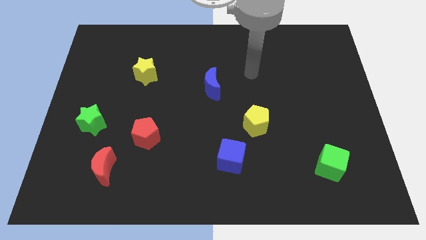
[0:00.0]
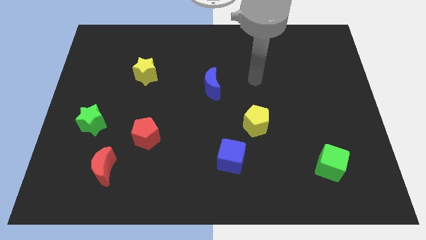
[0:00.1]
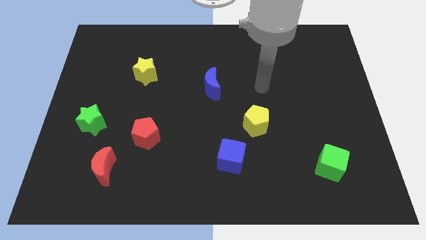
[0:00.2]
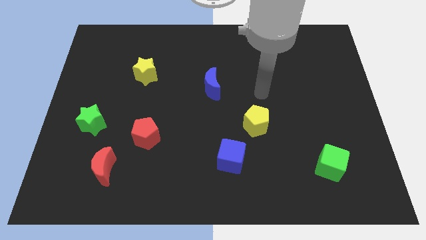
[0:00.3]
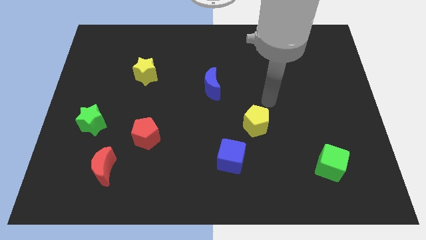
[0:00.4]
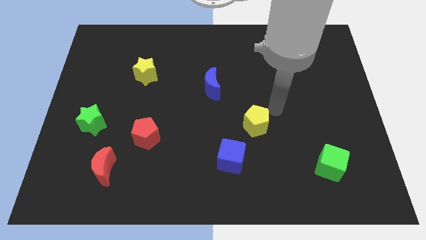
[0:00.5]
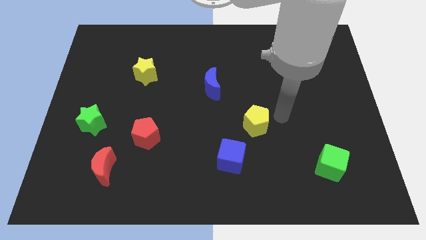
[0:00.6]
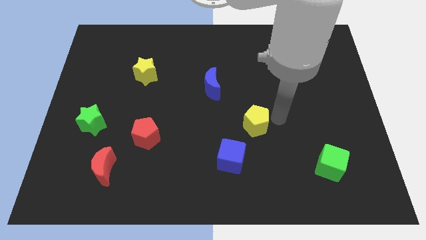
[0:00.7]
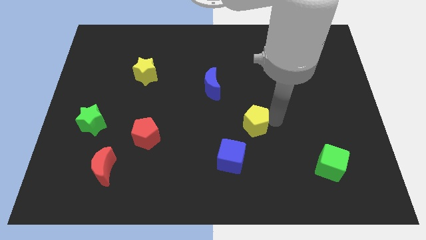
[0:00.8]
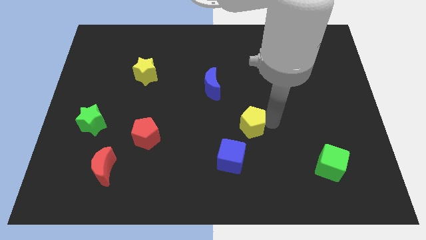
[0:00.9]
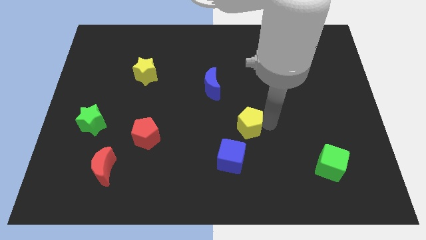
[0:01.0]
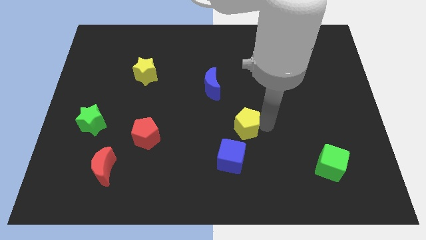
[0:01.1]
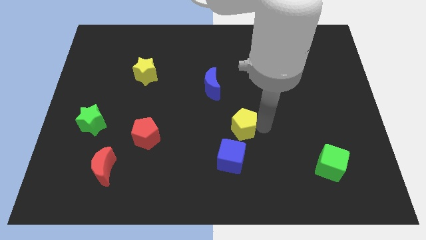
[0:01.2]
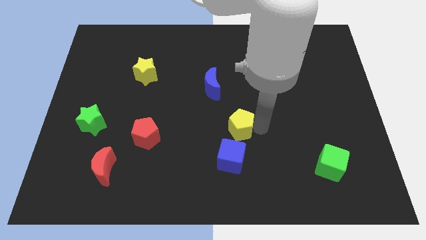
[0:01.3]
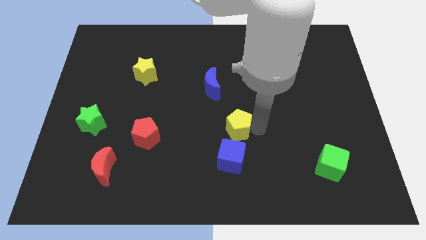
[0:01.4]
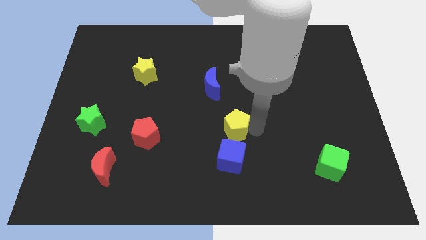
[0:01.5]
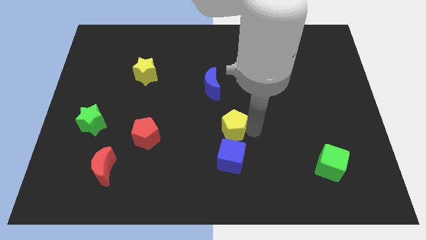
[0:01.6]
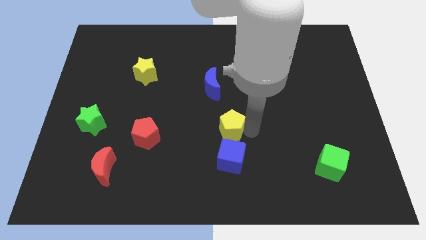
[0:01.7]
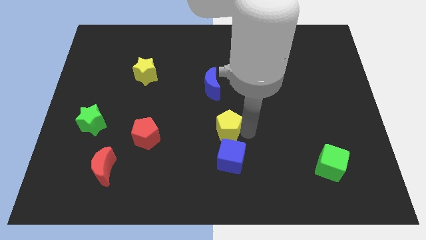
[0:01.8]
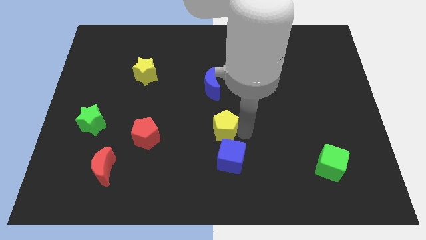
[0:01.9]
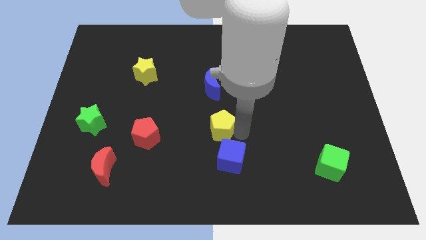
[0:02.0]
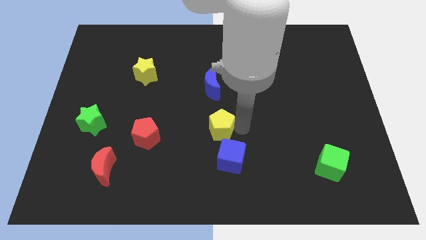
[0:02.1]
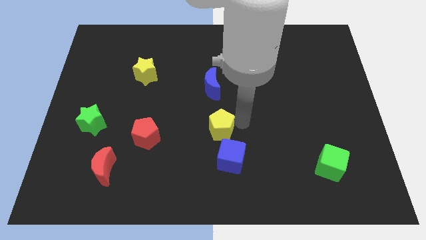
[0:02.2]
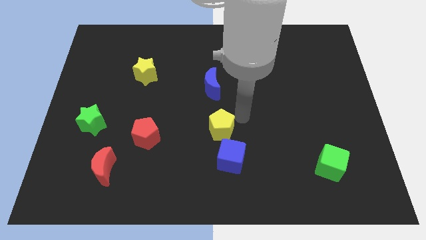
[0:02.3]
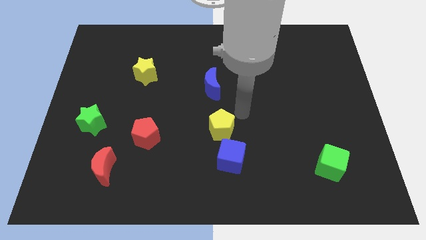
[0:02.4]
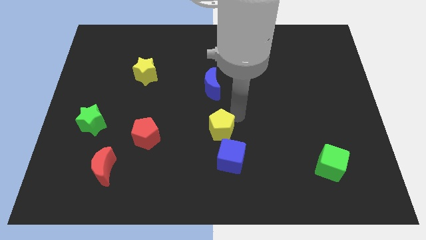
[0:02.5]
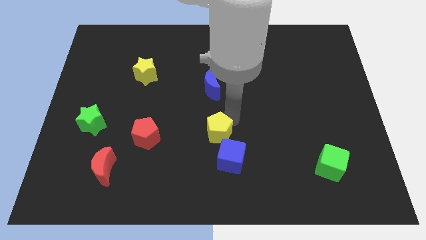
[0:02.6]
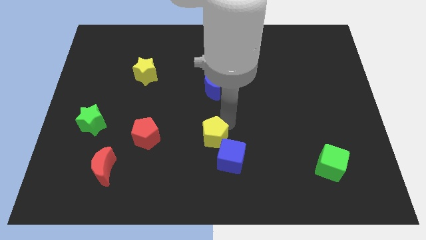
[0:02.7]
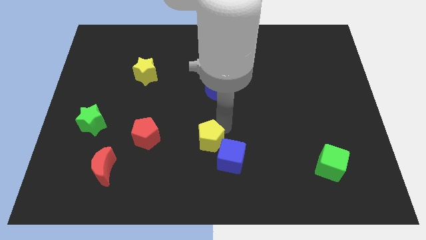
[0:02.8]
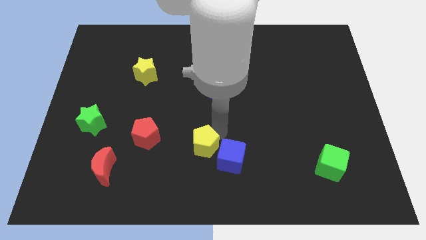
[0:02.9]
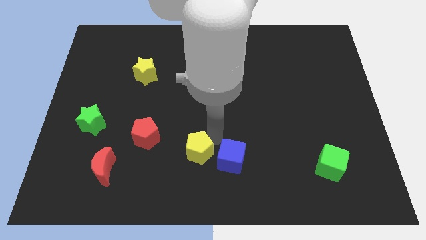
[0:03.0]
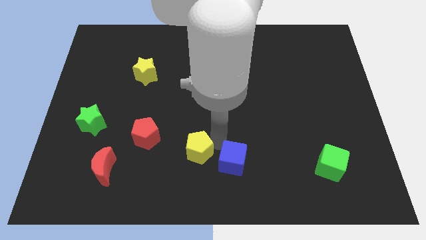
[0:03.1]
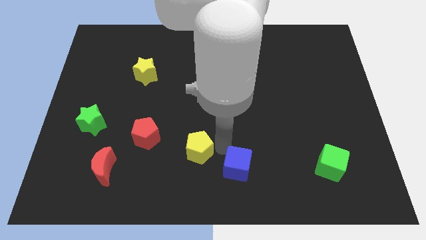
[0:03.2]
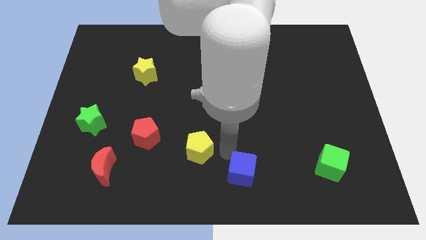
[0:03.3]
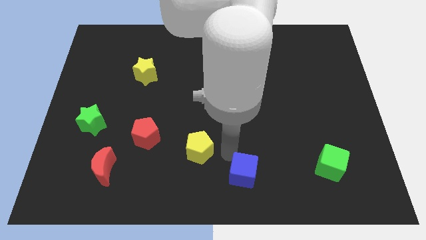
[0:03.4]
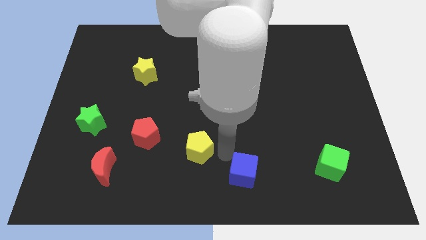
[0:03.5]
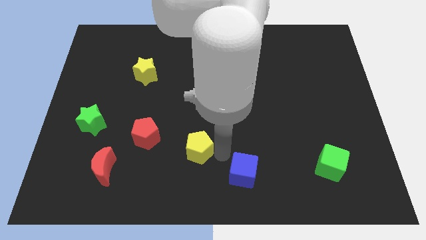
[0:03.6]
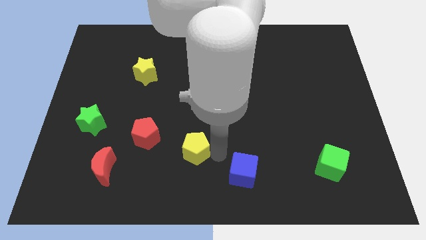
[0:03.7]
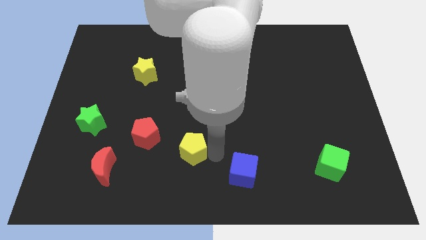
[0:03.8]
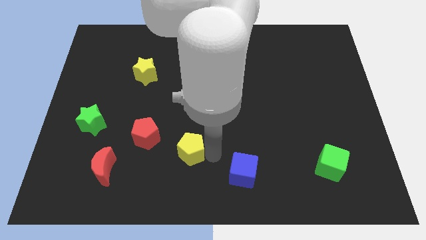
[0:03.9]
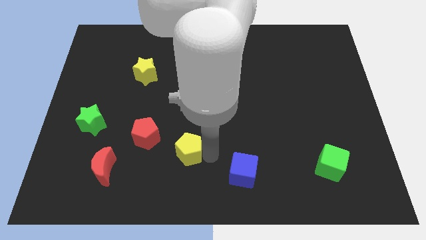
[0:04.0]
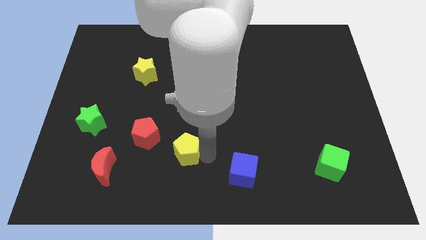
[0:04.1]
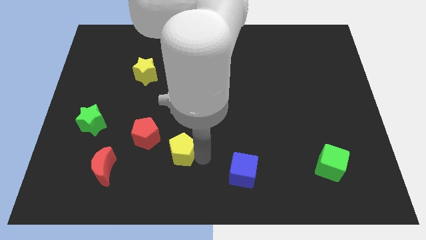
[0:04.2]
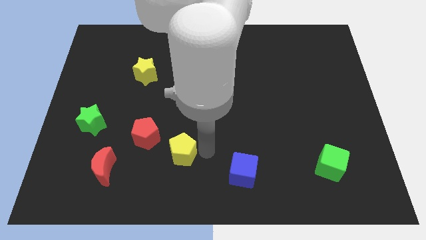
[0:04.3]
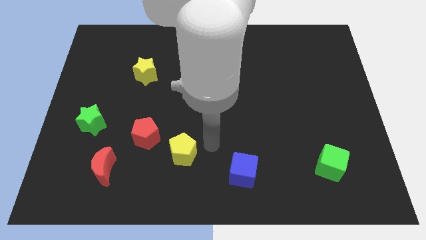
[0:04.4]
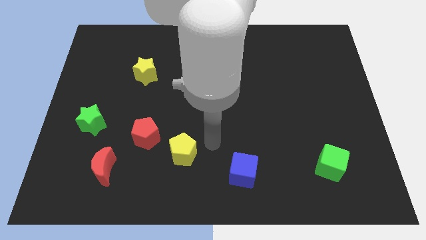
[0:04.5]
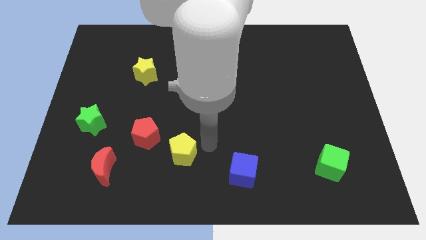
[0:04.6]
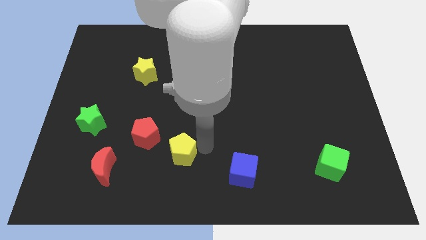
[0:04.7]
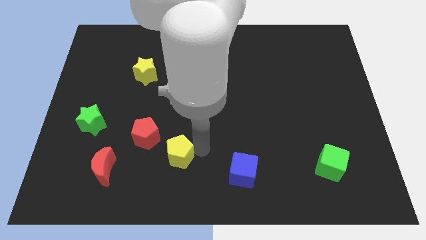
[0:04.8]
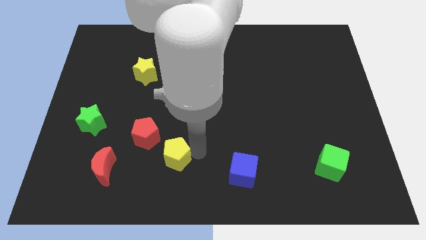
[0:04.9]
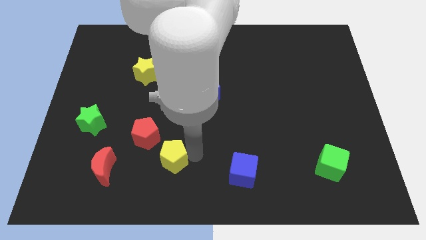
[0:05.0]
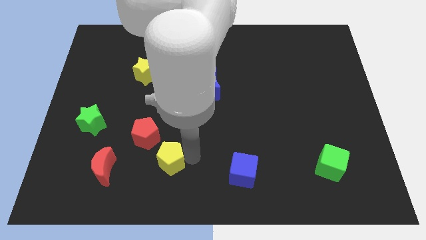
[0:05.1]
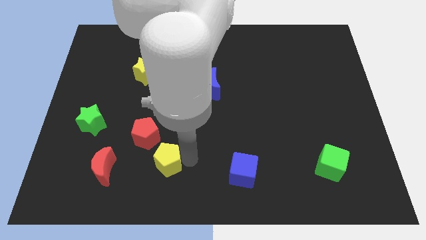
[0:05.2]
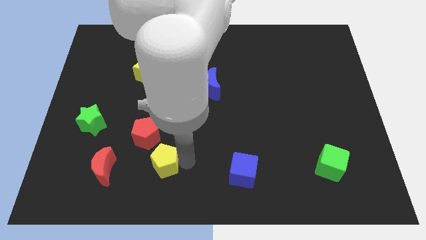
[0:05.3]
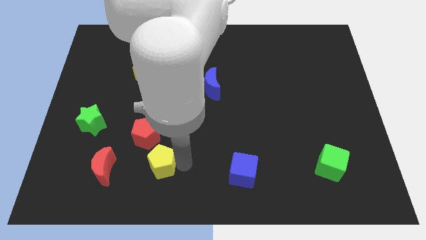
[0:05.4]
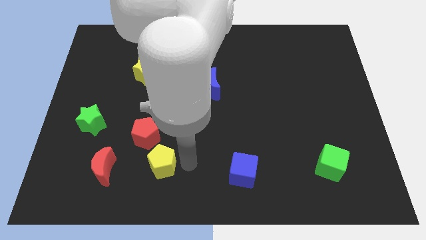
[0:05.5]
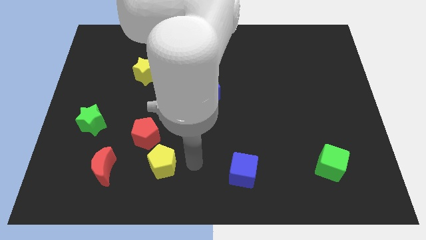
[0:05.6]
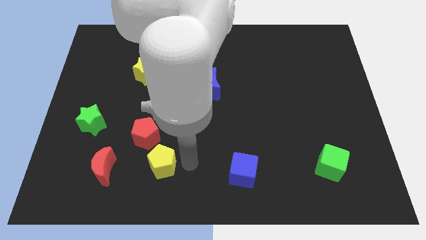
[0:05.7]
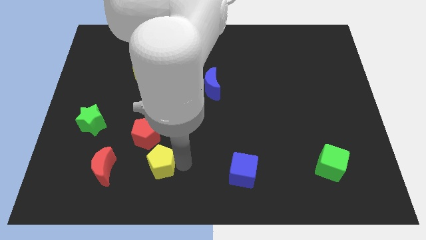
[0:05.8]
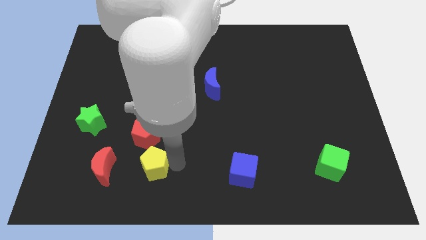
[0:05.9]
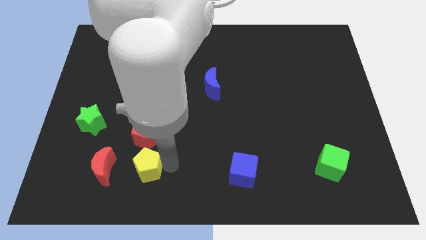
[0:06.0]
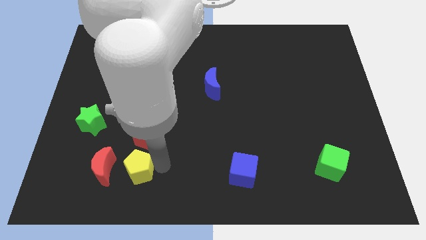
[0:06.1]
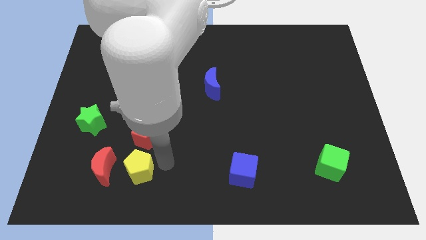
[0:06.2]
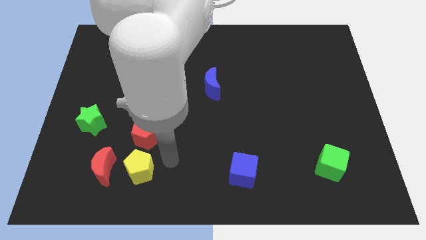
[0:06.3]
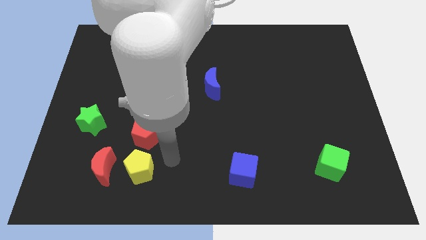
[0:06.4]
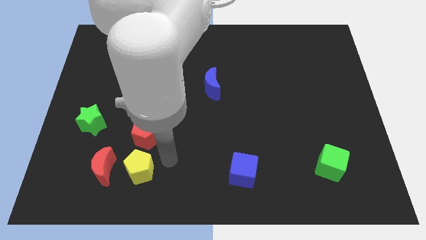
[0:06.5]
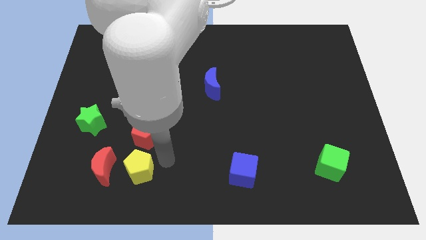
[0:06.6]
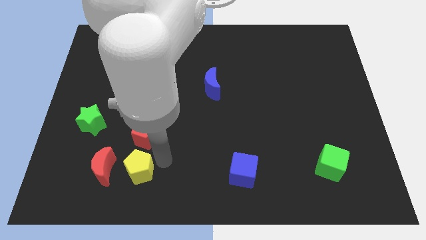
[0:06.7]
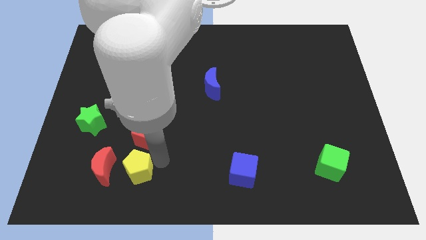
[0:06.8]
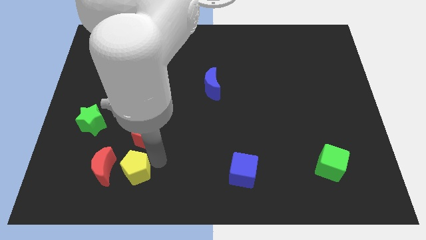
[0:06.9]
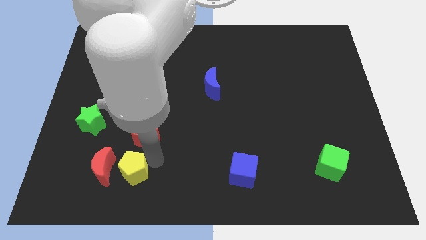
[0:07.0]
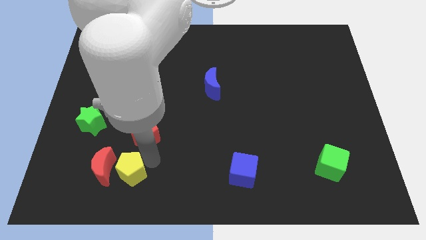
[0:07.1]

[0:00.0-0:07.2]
slide the yellow pentagon to the bottom left of the red pentagon

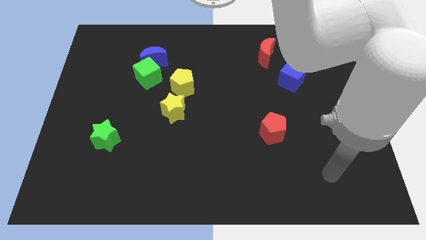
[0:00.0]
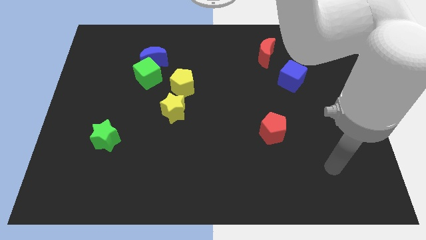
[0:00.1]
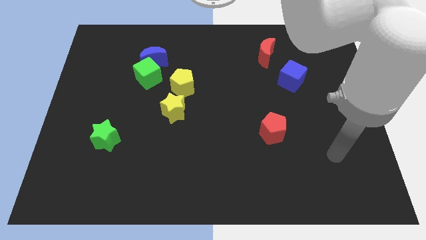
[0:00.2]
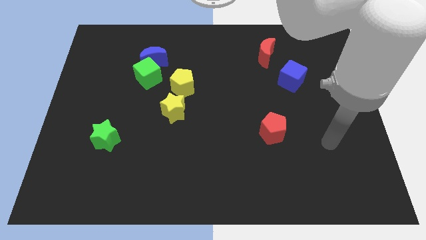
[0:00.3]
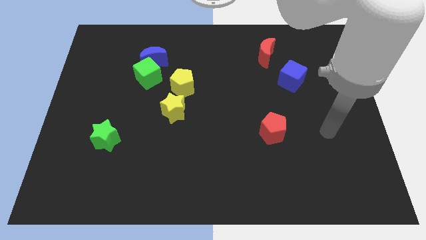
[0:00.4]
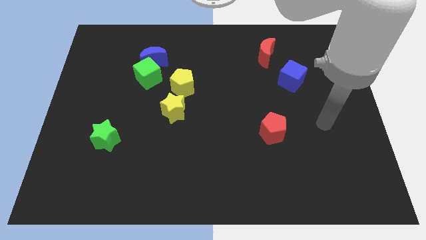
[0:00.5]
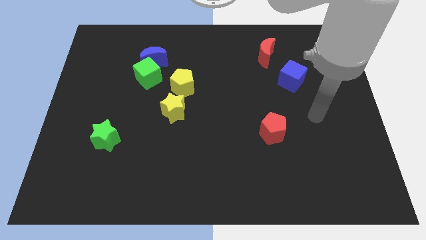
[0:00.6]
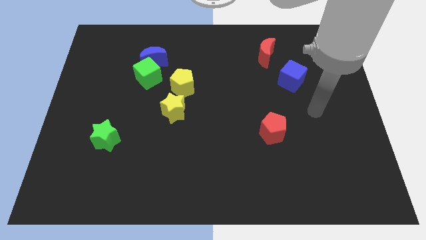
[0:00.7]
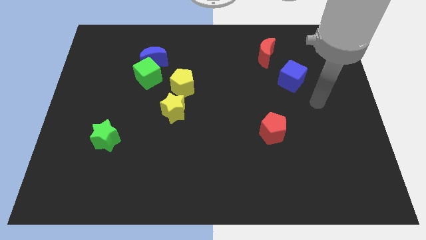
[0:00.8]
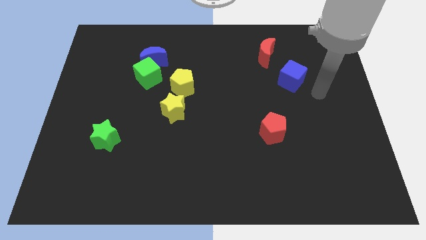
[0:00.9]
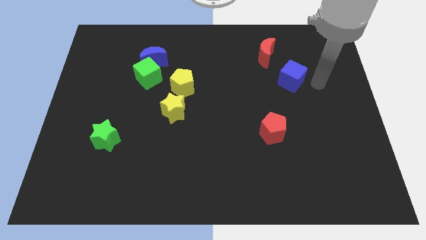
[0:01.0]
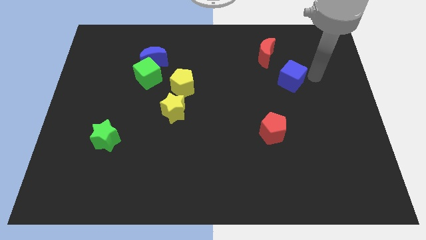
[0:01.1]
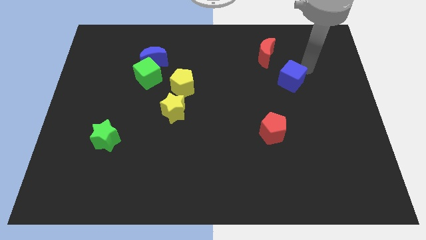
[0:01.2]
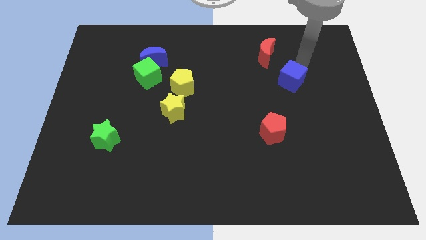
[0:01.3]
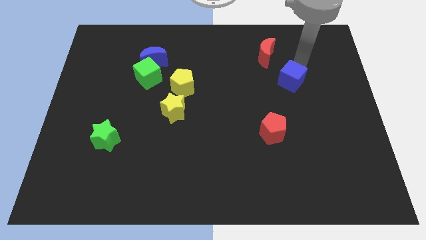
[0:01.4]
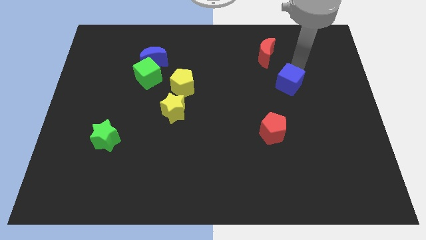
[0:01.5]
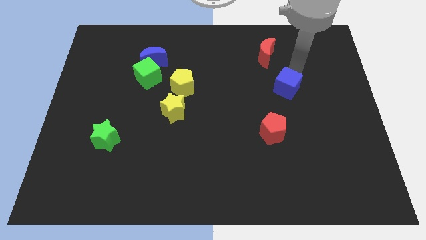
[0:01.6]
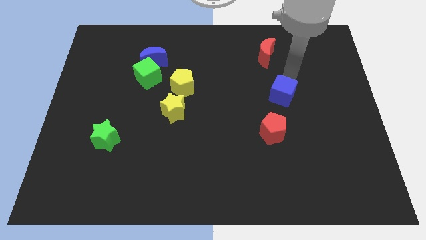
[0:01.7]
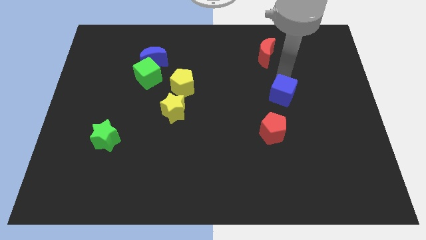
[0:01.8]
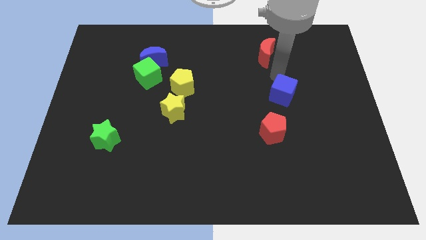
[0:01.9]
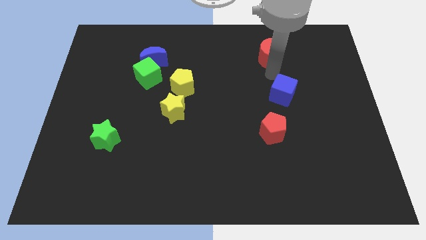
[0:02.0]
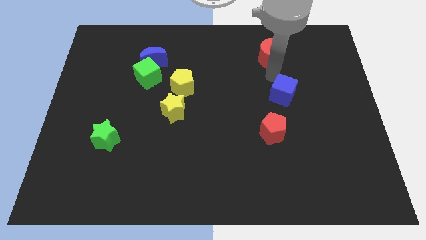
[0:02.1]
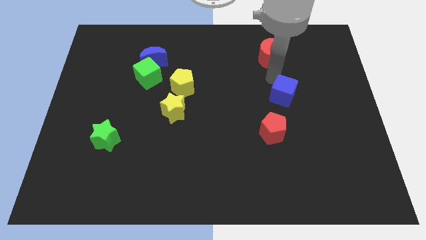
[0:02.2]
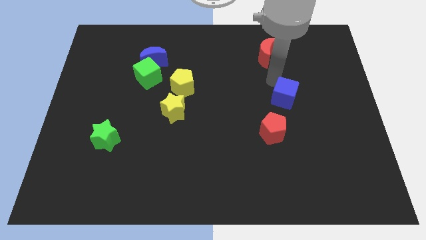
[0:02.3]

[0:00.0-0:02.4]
move the blue cube to the top right of the red pentagon
